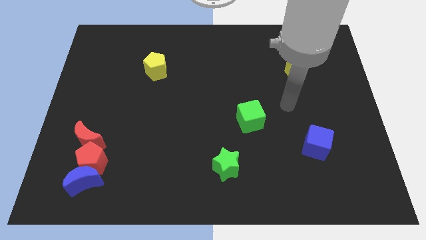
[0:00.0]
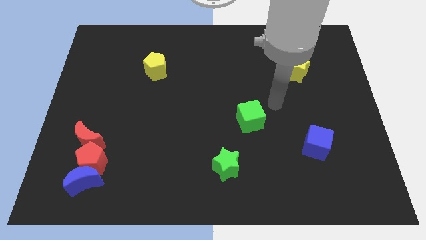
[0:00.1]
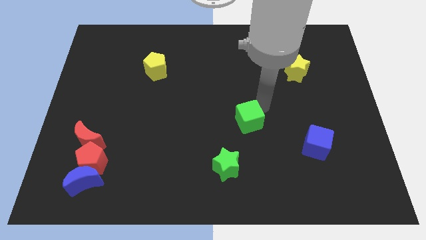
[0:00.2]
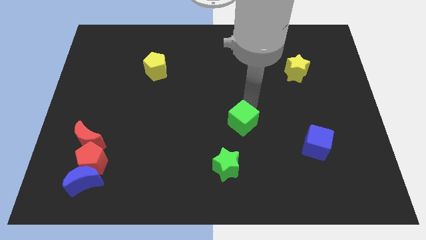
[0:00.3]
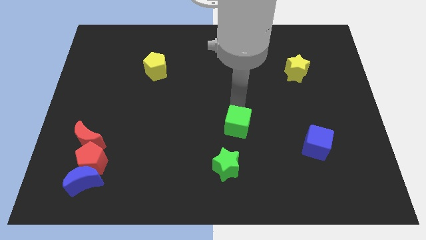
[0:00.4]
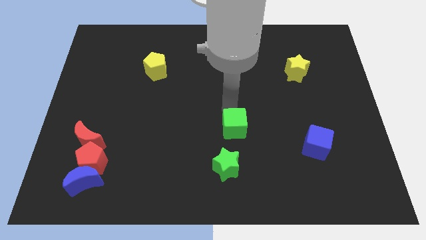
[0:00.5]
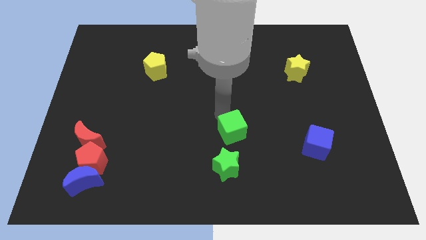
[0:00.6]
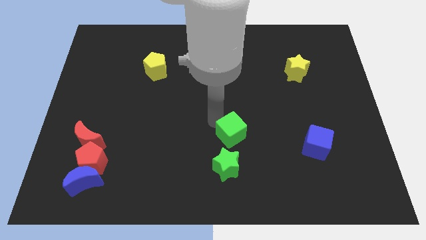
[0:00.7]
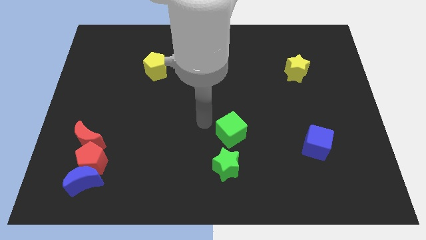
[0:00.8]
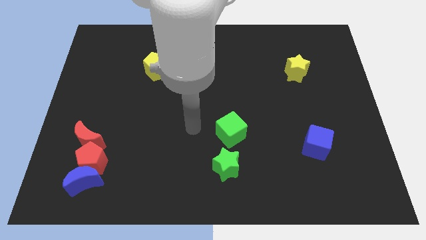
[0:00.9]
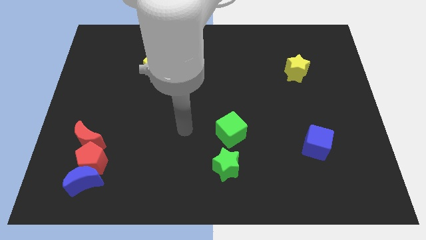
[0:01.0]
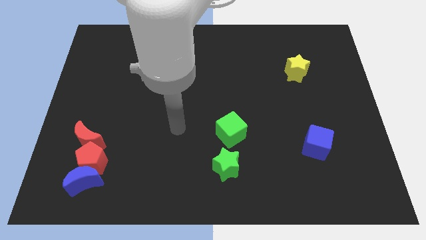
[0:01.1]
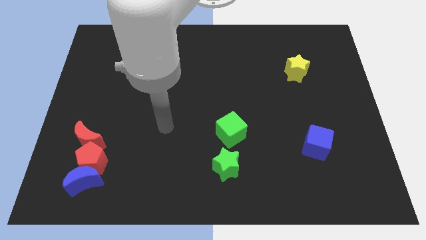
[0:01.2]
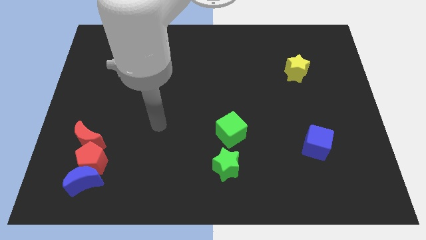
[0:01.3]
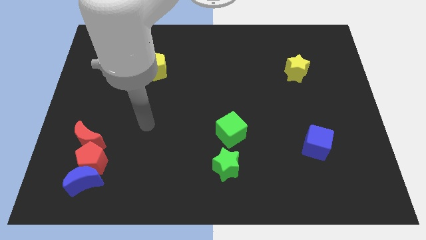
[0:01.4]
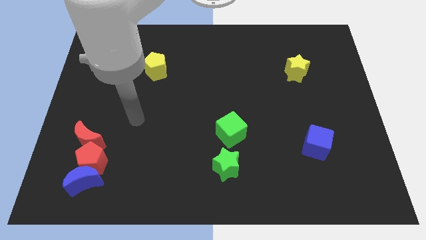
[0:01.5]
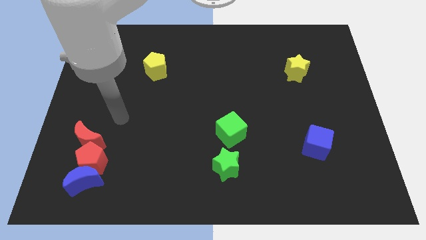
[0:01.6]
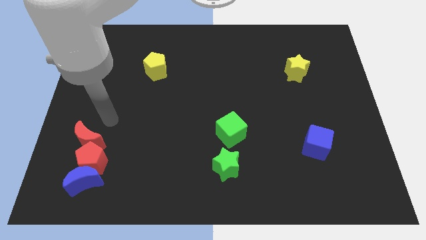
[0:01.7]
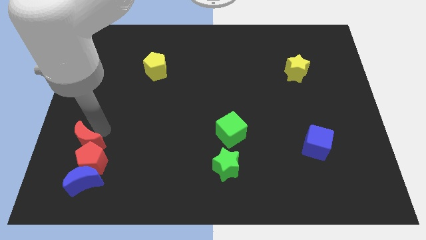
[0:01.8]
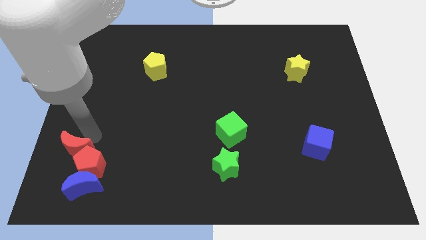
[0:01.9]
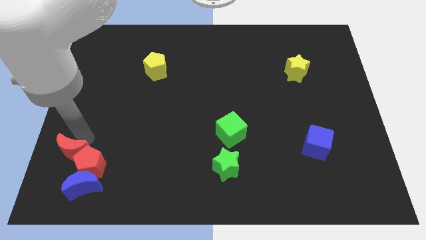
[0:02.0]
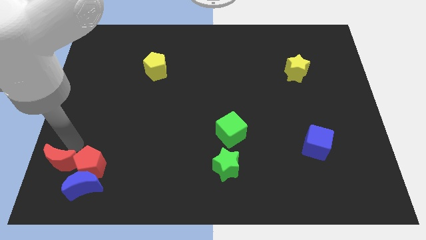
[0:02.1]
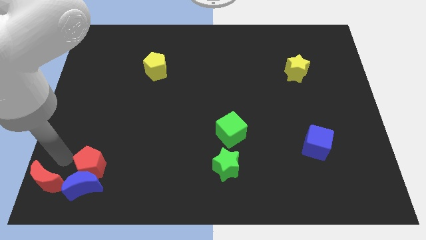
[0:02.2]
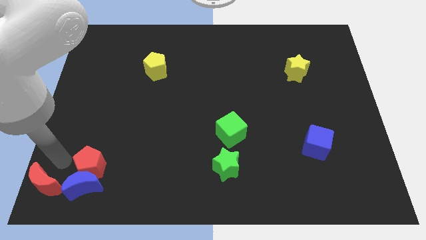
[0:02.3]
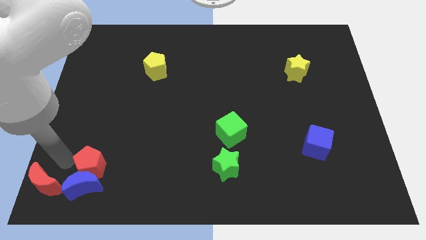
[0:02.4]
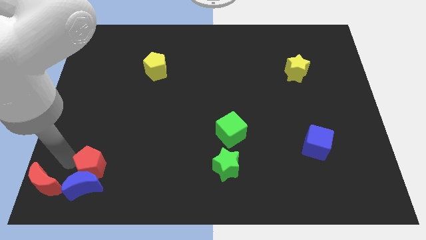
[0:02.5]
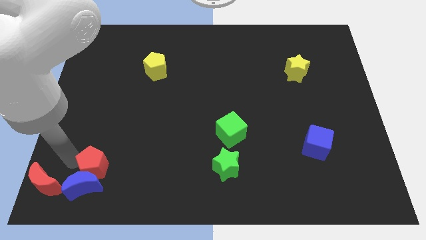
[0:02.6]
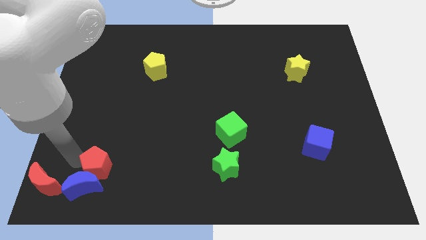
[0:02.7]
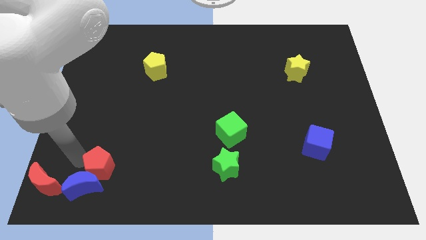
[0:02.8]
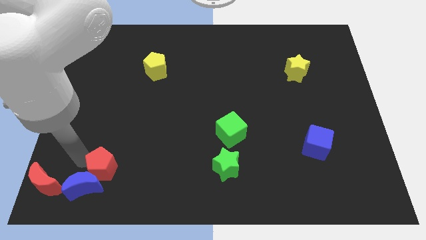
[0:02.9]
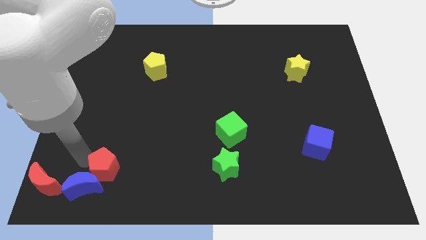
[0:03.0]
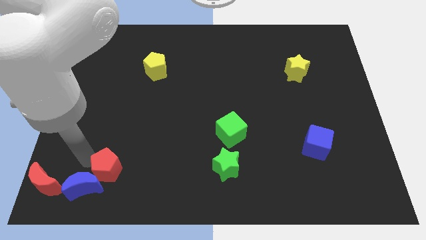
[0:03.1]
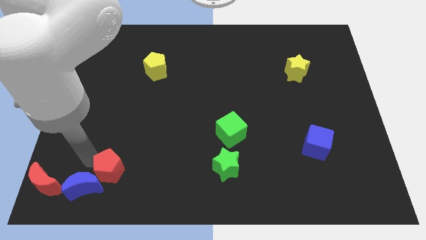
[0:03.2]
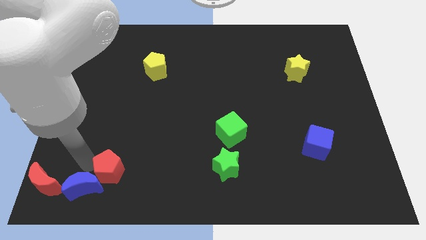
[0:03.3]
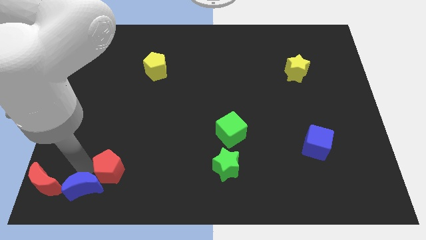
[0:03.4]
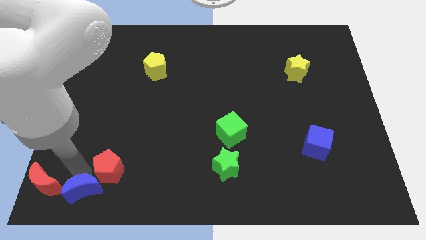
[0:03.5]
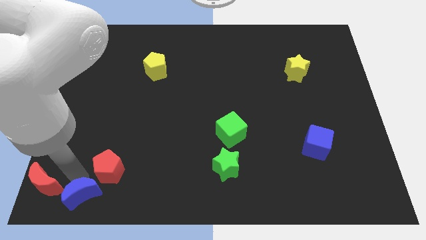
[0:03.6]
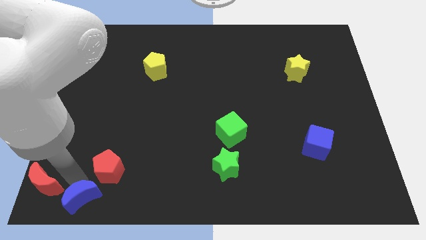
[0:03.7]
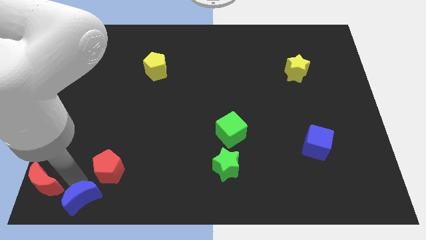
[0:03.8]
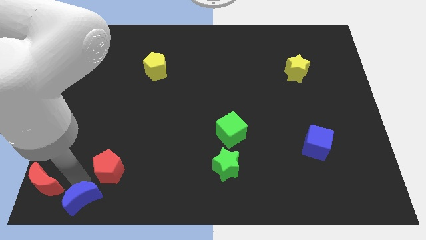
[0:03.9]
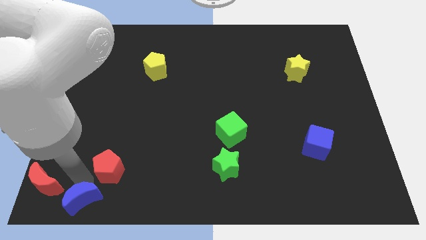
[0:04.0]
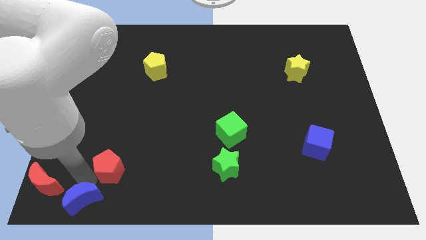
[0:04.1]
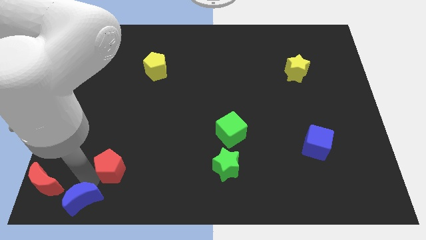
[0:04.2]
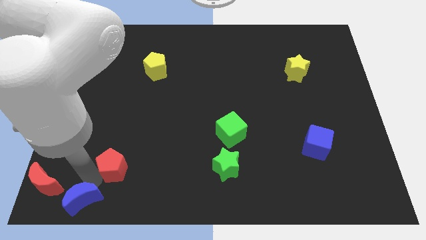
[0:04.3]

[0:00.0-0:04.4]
separate the red pentagon from the blue moon and red moon

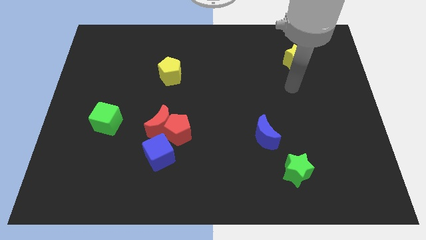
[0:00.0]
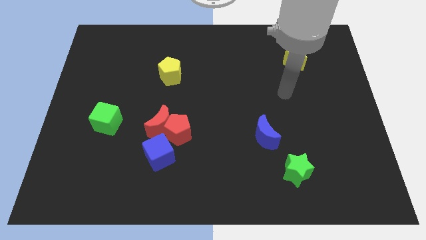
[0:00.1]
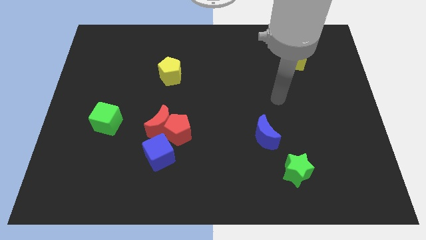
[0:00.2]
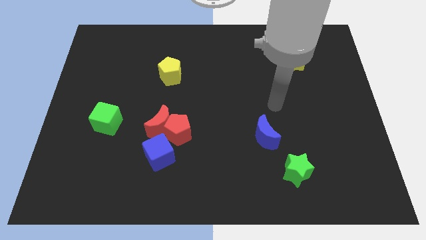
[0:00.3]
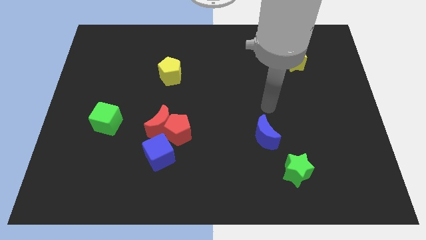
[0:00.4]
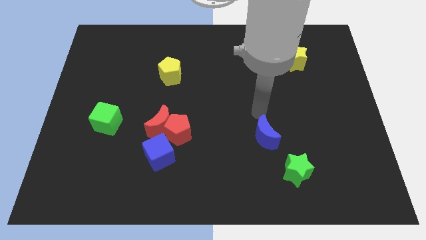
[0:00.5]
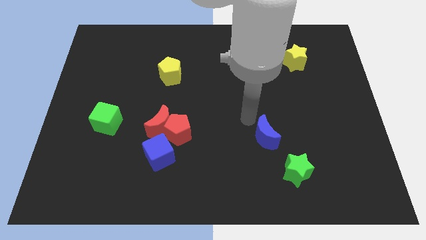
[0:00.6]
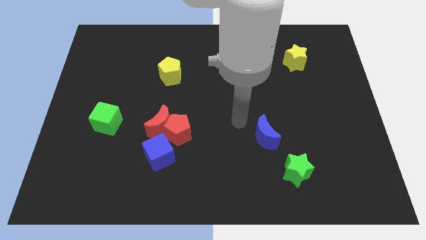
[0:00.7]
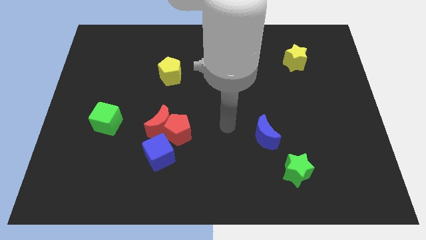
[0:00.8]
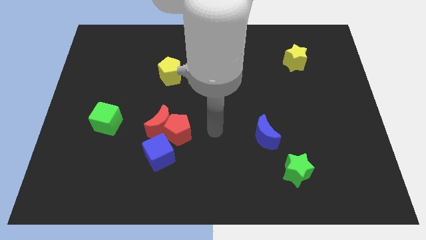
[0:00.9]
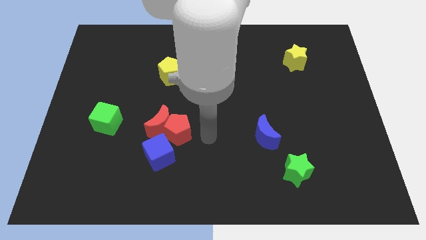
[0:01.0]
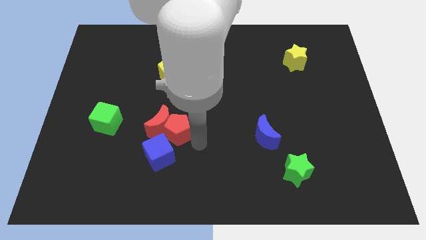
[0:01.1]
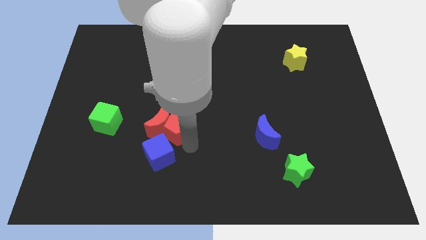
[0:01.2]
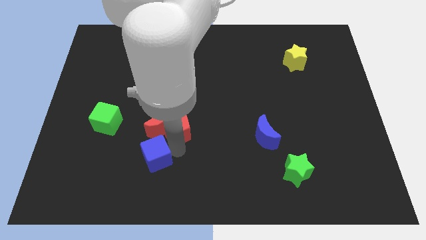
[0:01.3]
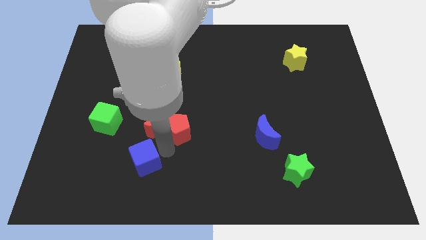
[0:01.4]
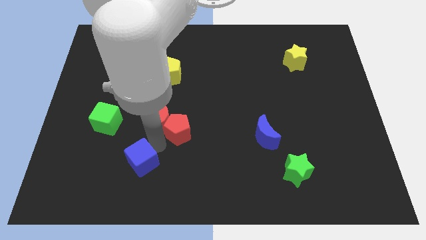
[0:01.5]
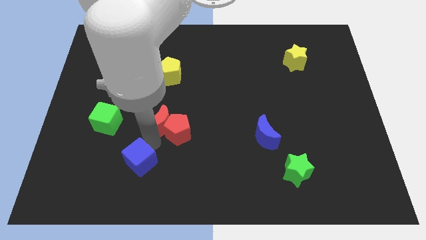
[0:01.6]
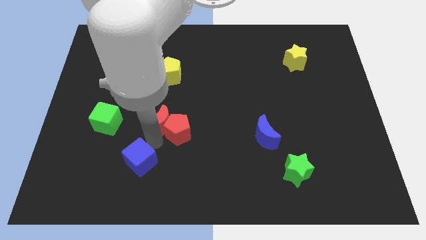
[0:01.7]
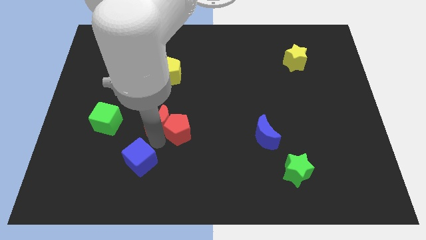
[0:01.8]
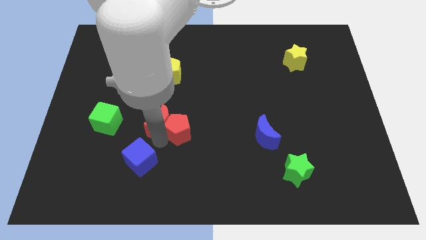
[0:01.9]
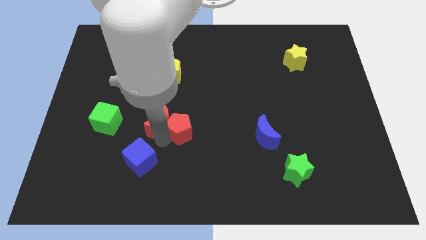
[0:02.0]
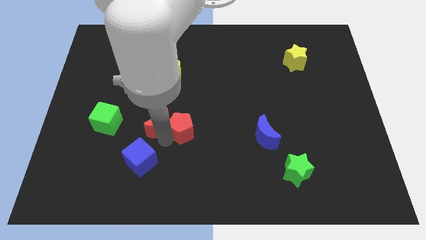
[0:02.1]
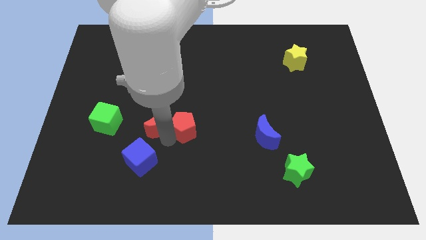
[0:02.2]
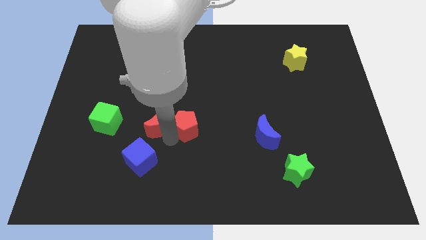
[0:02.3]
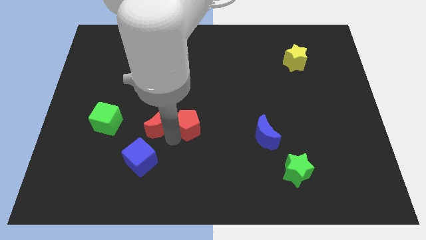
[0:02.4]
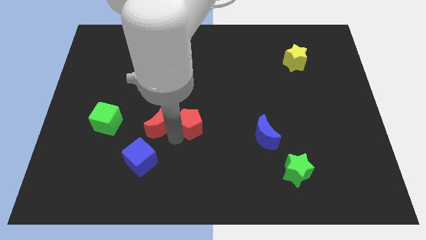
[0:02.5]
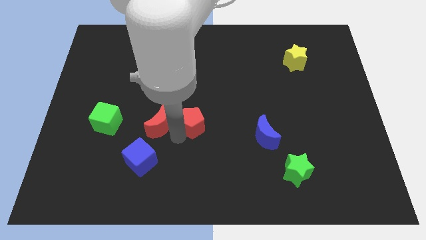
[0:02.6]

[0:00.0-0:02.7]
move the red pentagon away from the red moon and blue cube

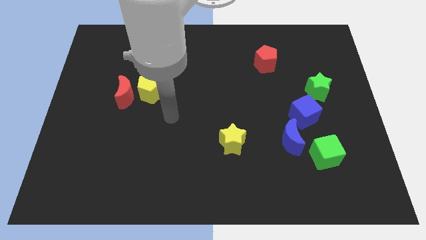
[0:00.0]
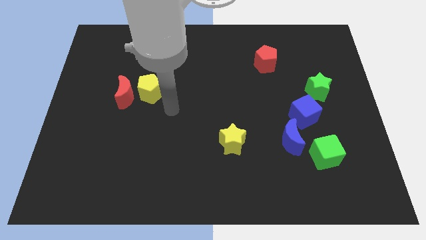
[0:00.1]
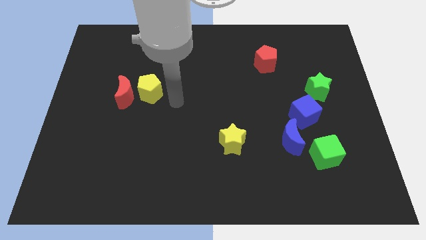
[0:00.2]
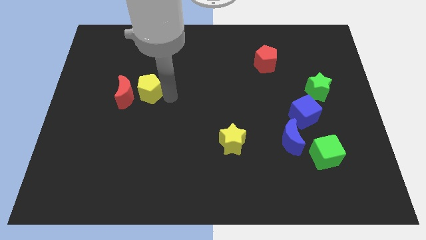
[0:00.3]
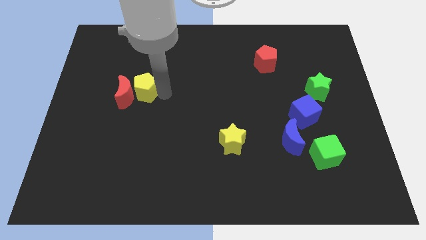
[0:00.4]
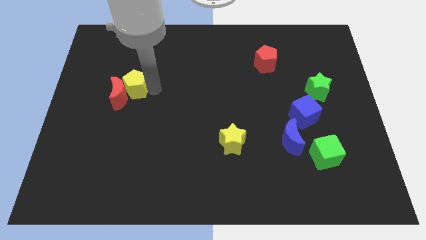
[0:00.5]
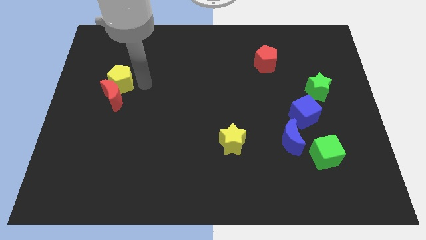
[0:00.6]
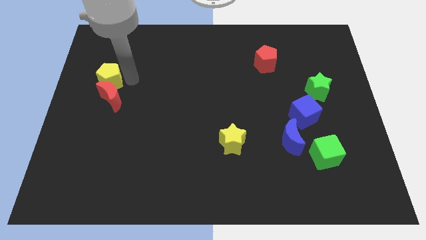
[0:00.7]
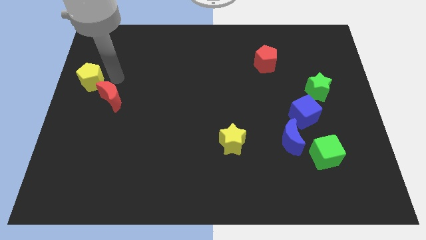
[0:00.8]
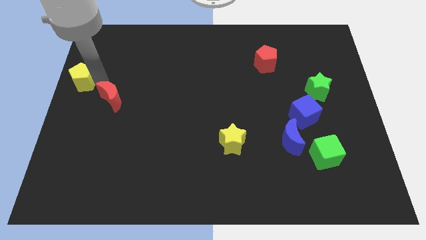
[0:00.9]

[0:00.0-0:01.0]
separate the red moon from the yellow pentagon

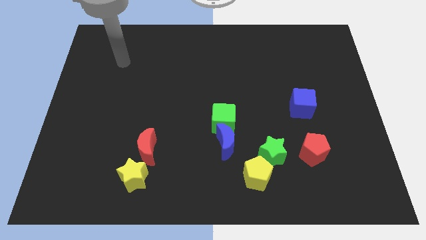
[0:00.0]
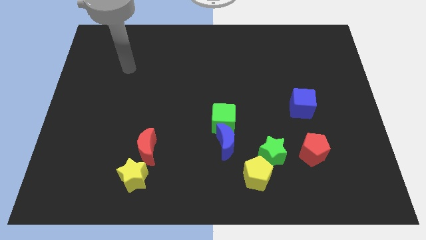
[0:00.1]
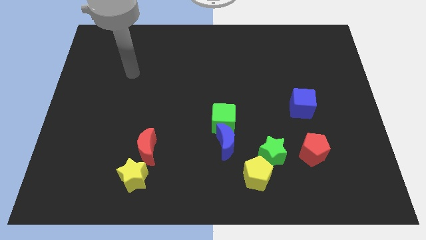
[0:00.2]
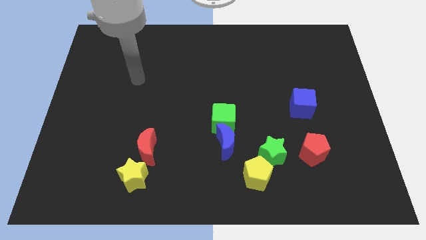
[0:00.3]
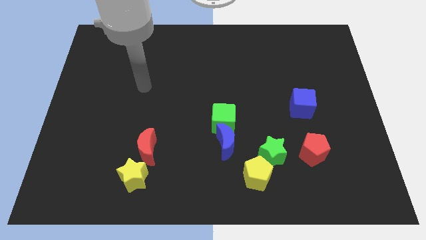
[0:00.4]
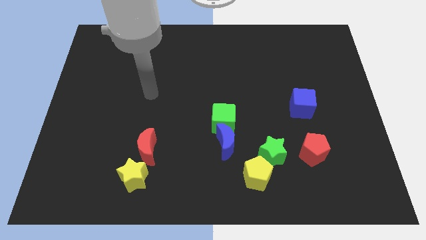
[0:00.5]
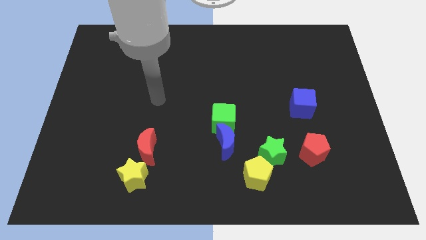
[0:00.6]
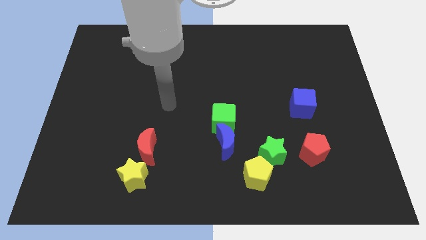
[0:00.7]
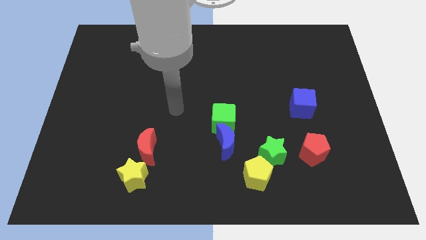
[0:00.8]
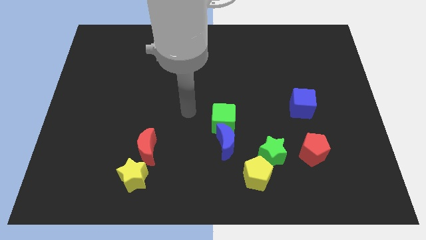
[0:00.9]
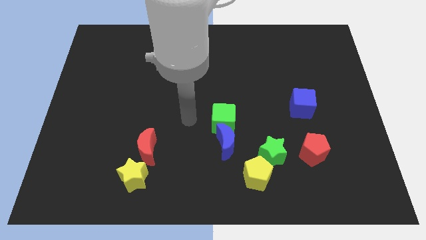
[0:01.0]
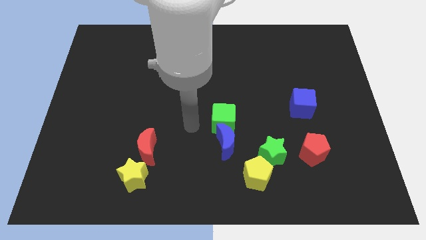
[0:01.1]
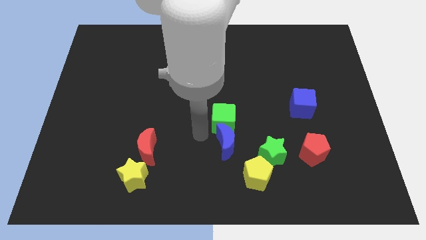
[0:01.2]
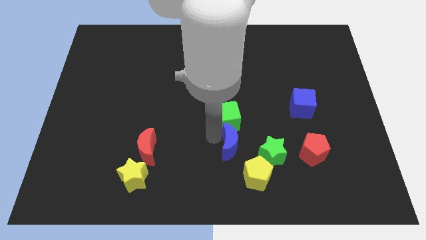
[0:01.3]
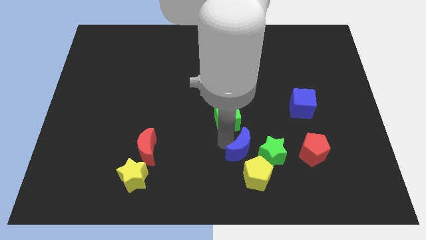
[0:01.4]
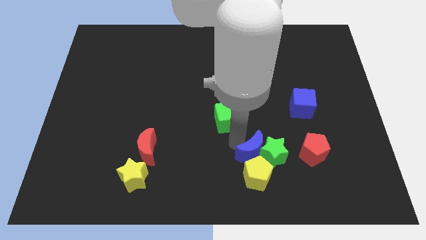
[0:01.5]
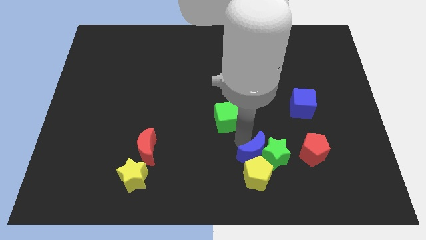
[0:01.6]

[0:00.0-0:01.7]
move the green cube away from the blue moon
